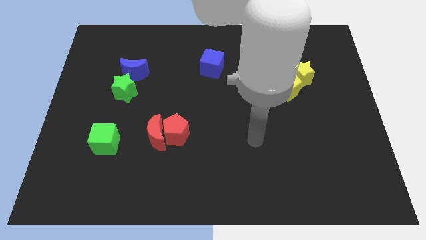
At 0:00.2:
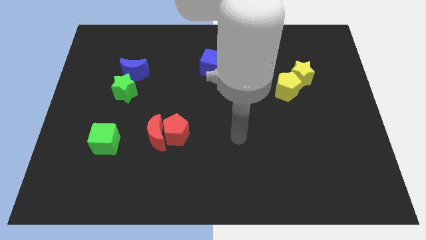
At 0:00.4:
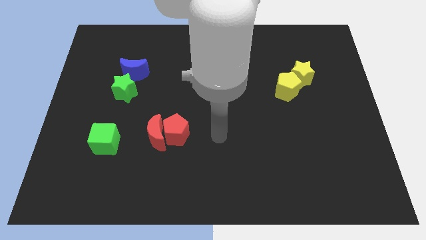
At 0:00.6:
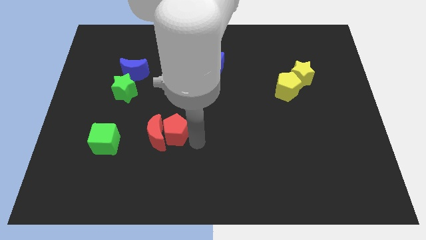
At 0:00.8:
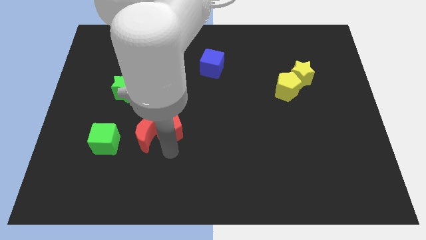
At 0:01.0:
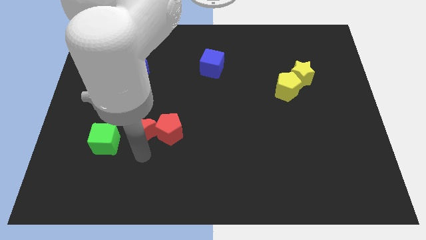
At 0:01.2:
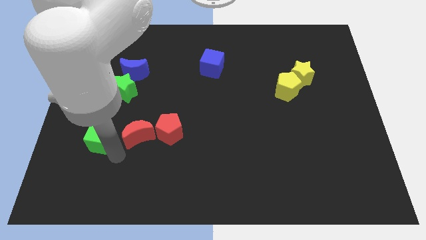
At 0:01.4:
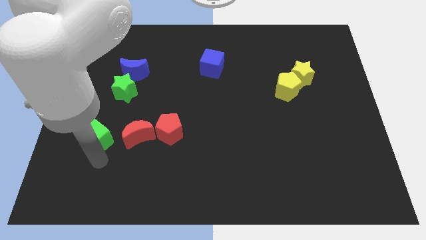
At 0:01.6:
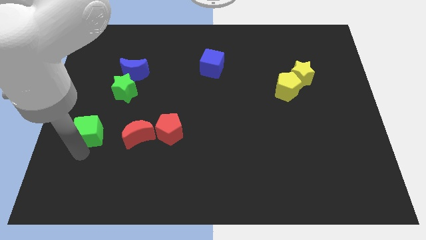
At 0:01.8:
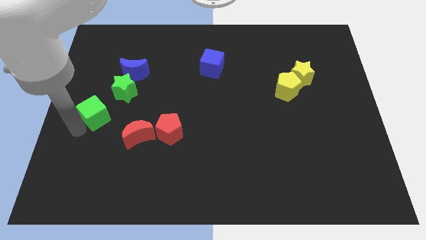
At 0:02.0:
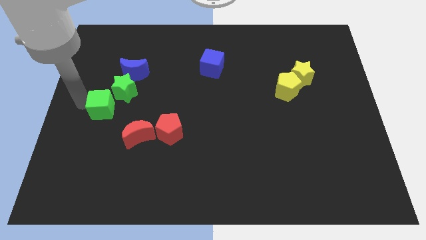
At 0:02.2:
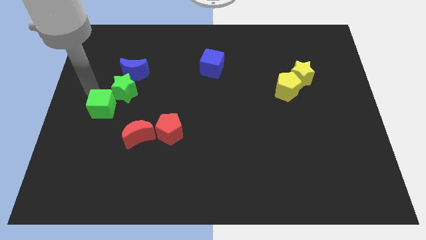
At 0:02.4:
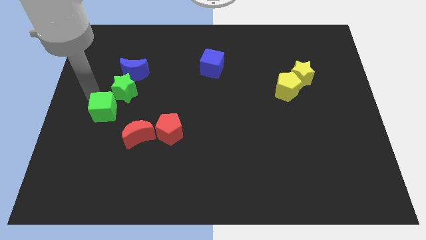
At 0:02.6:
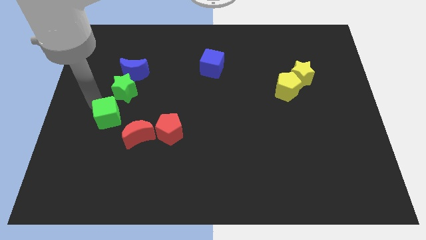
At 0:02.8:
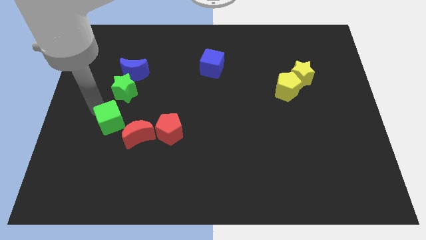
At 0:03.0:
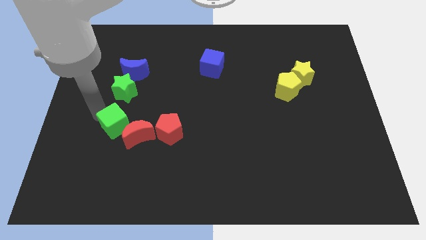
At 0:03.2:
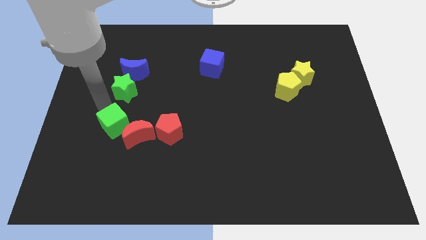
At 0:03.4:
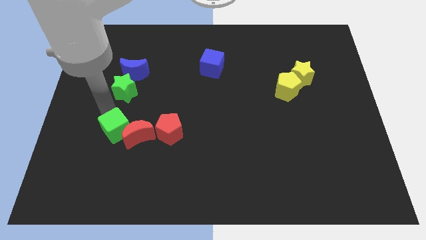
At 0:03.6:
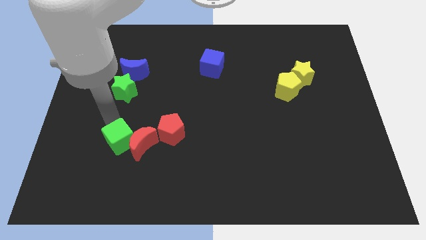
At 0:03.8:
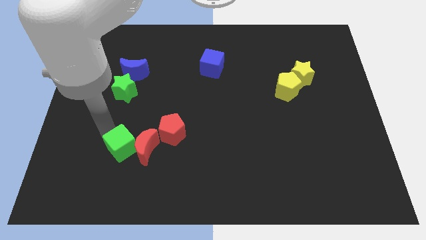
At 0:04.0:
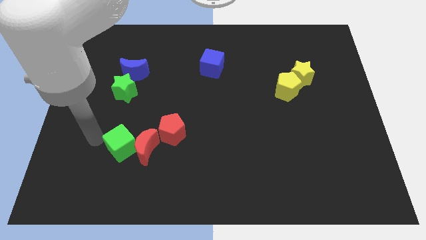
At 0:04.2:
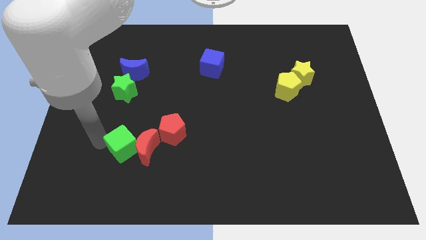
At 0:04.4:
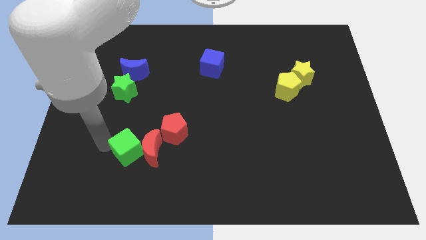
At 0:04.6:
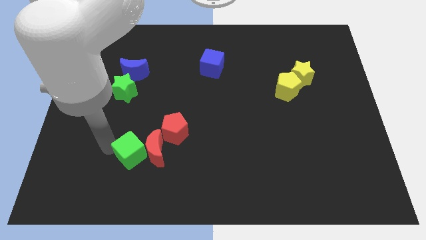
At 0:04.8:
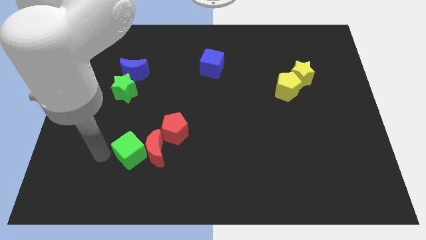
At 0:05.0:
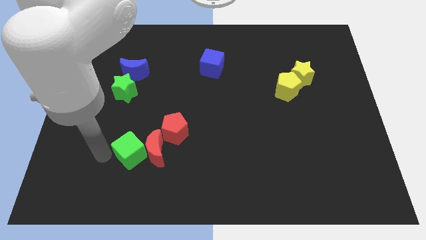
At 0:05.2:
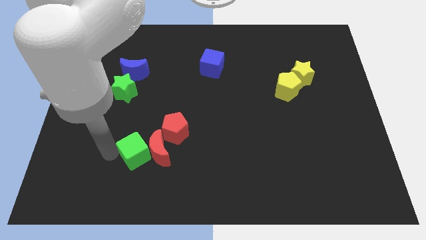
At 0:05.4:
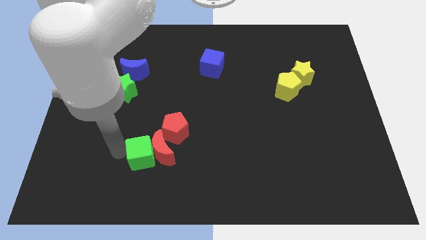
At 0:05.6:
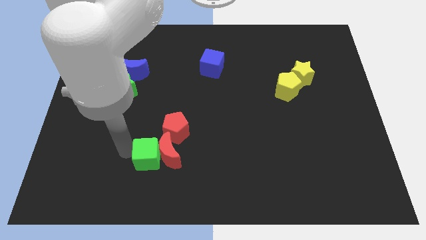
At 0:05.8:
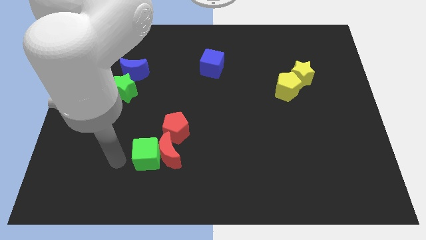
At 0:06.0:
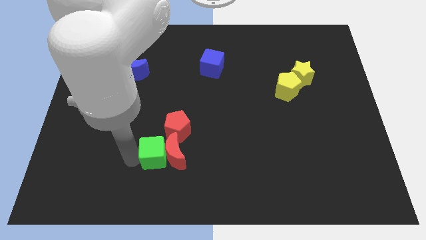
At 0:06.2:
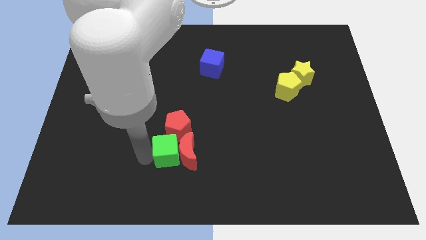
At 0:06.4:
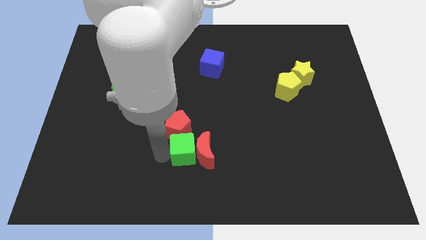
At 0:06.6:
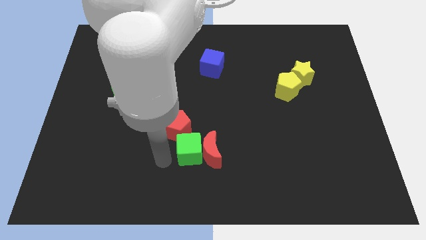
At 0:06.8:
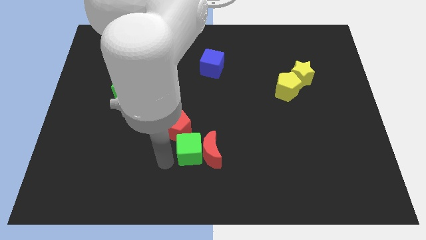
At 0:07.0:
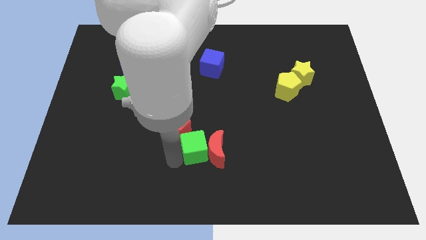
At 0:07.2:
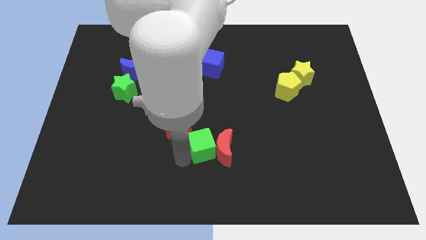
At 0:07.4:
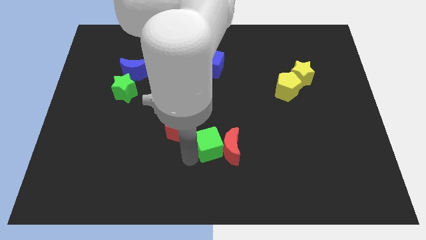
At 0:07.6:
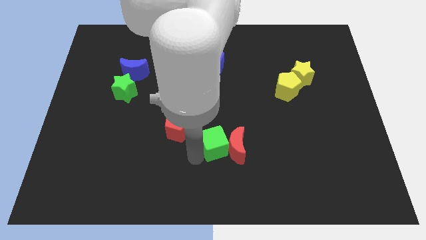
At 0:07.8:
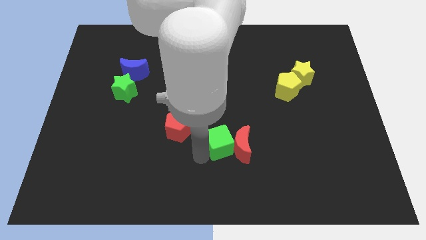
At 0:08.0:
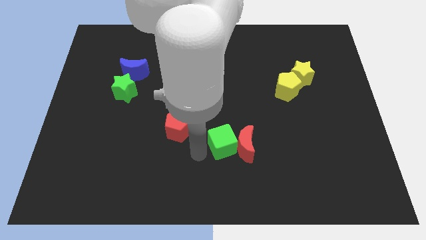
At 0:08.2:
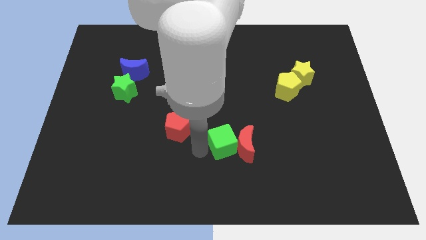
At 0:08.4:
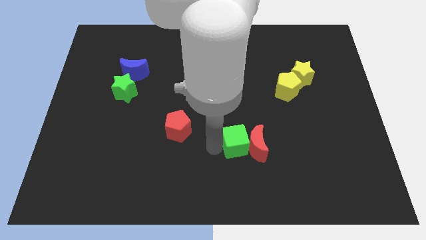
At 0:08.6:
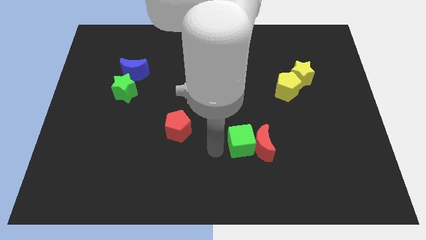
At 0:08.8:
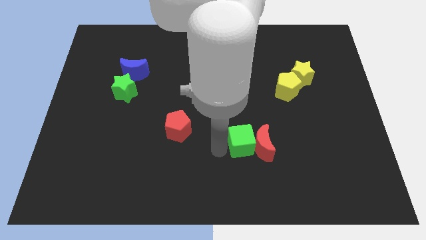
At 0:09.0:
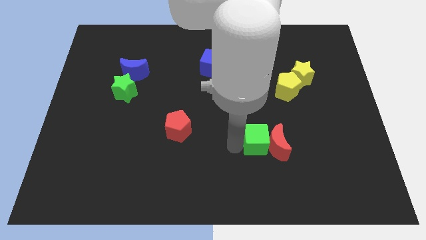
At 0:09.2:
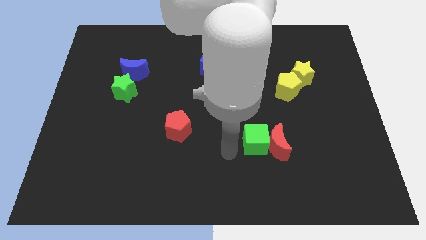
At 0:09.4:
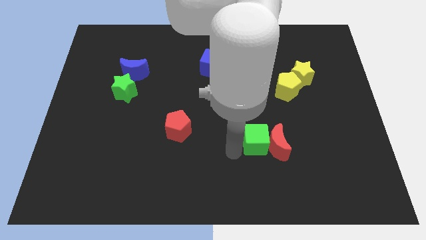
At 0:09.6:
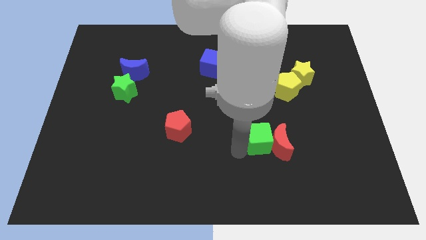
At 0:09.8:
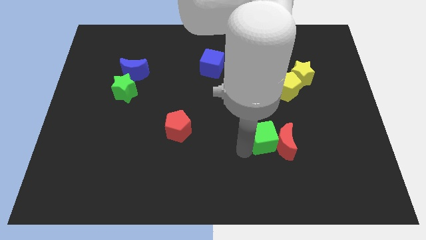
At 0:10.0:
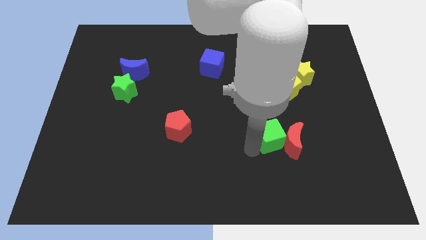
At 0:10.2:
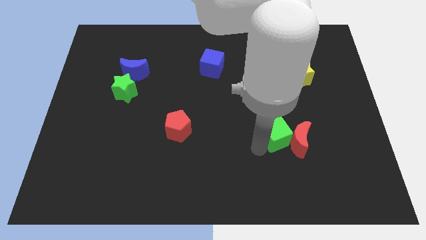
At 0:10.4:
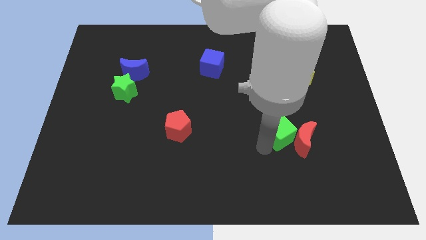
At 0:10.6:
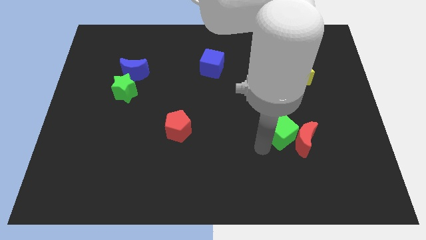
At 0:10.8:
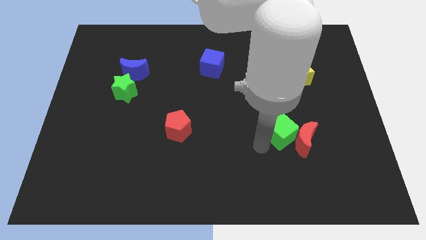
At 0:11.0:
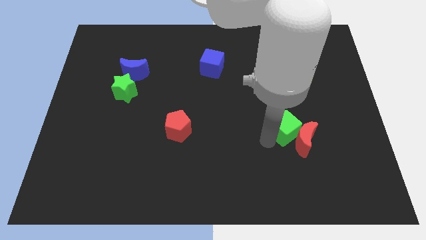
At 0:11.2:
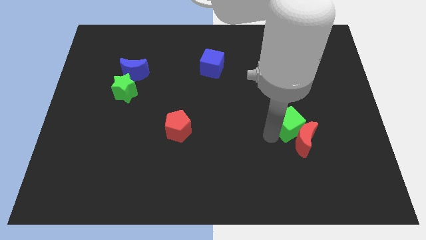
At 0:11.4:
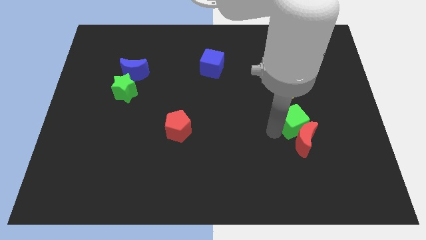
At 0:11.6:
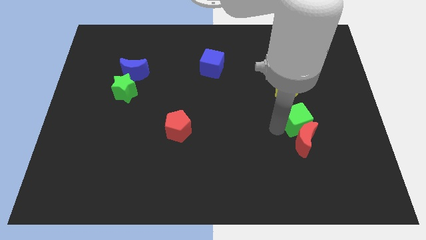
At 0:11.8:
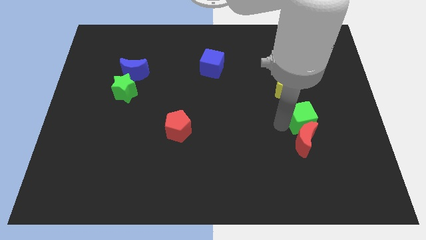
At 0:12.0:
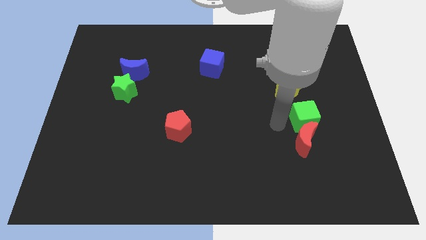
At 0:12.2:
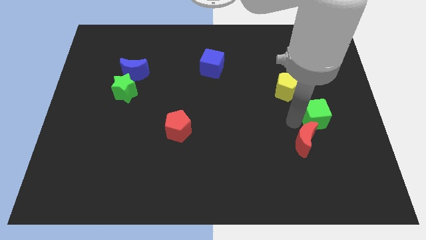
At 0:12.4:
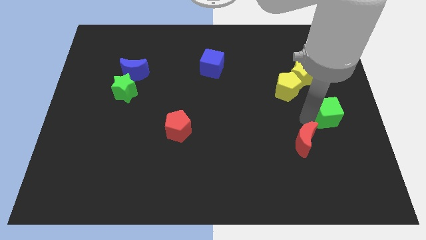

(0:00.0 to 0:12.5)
push the green cube to the right side
